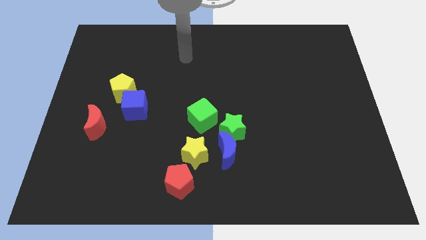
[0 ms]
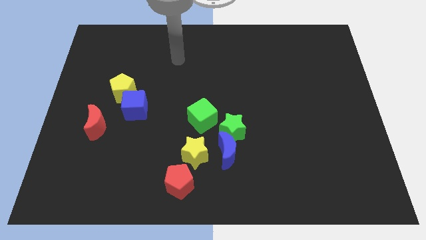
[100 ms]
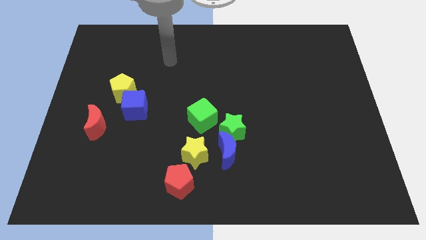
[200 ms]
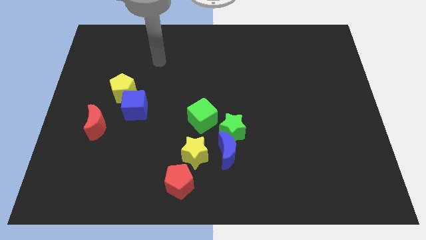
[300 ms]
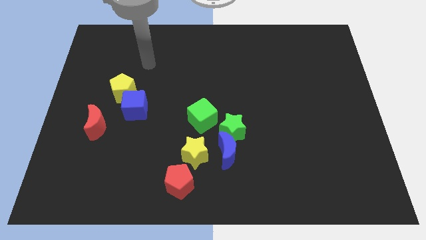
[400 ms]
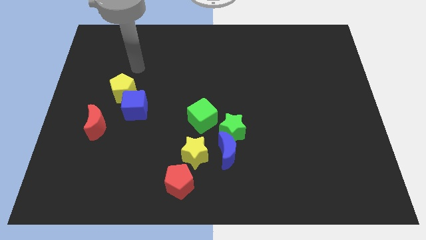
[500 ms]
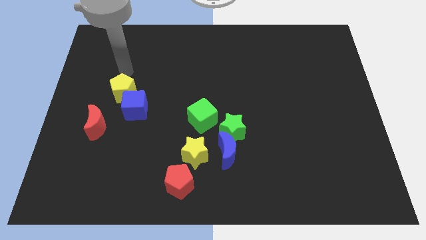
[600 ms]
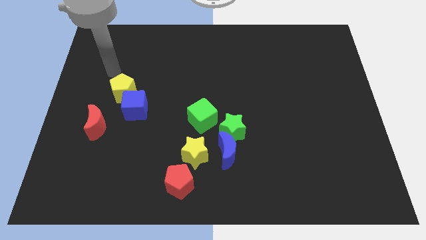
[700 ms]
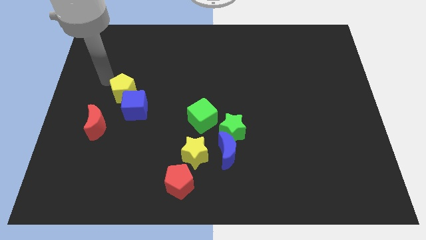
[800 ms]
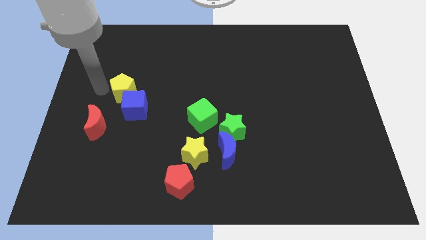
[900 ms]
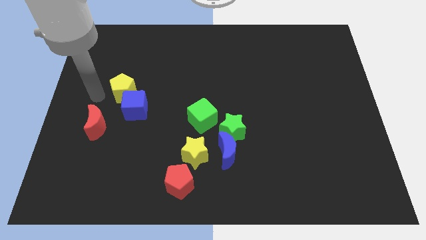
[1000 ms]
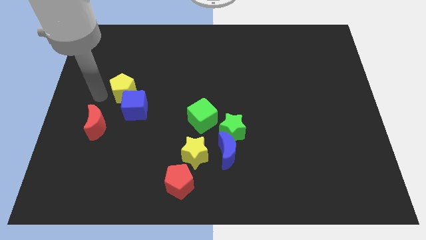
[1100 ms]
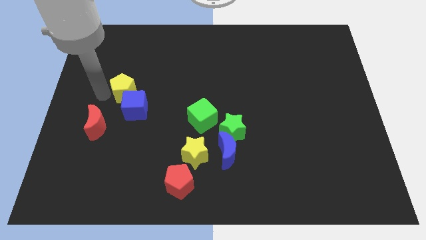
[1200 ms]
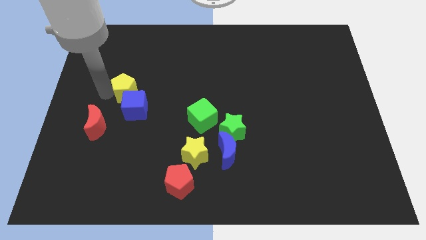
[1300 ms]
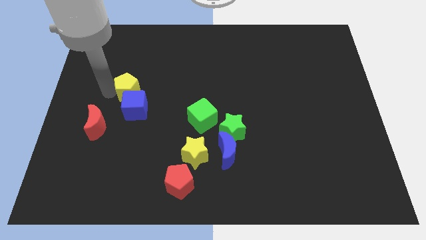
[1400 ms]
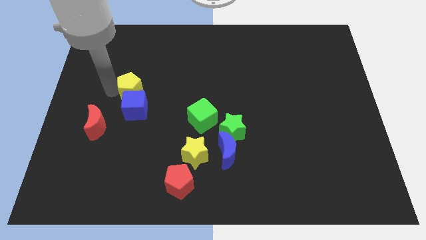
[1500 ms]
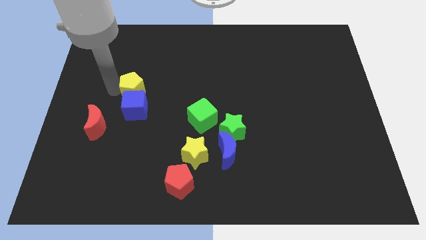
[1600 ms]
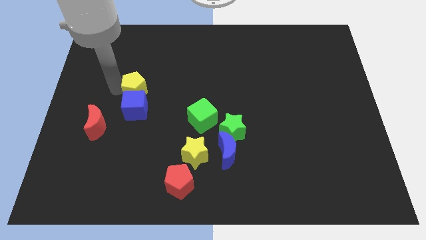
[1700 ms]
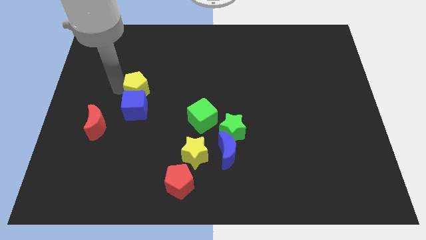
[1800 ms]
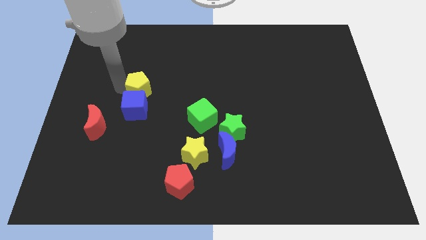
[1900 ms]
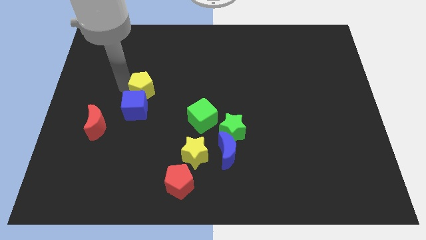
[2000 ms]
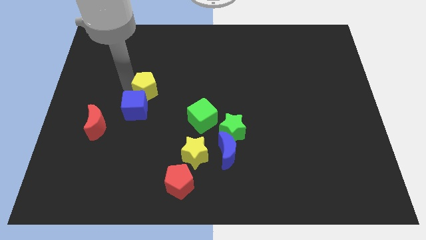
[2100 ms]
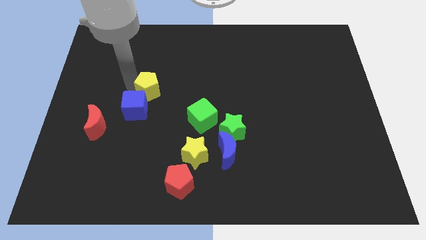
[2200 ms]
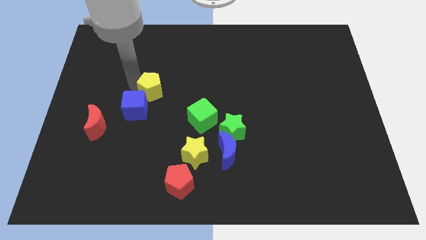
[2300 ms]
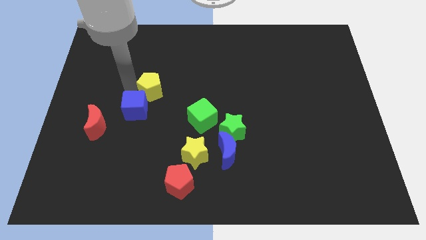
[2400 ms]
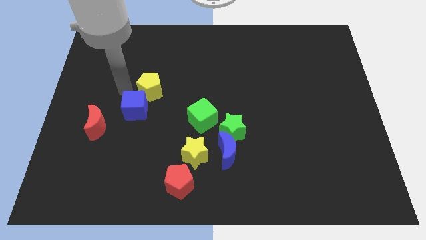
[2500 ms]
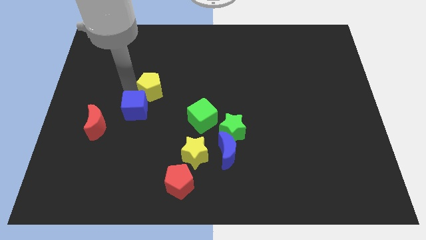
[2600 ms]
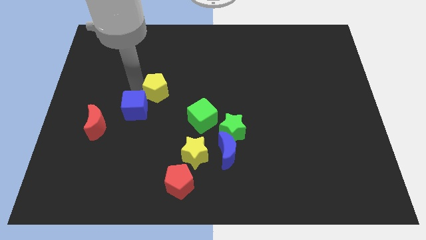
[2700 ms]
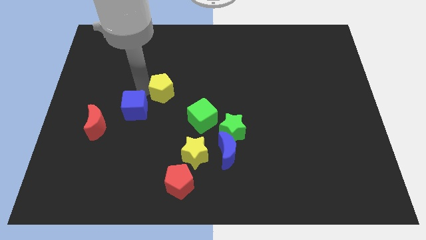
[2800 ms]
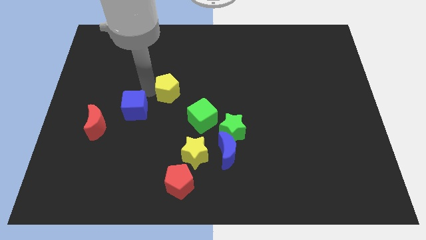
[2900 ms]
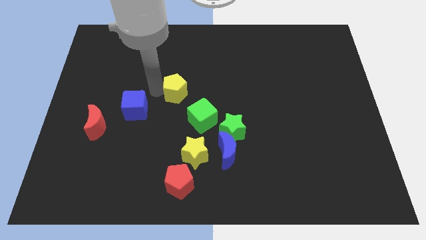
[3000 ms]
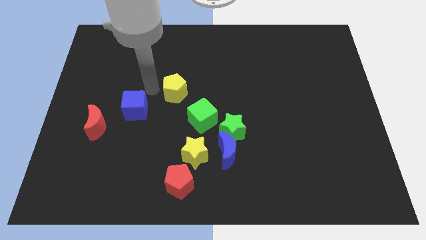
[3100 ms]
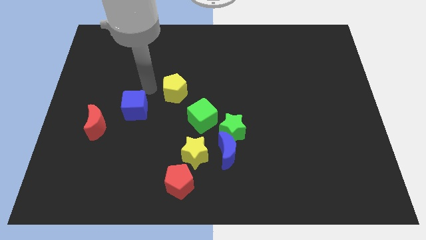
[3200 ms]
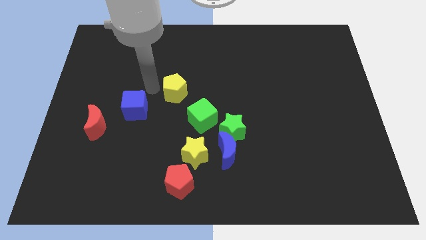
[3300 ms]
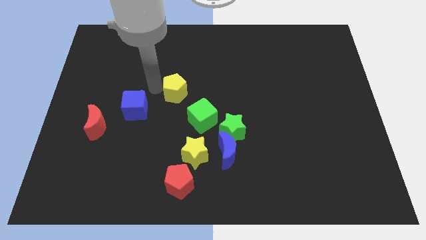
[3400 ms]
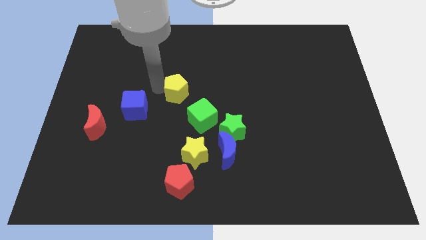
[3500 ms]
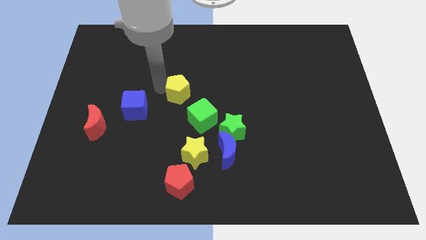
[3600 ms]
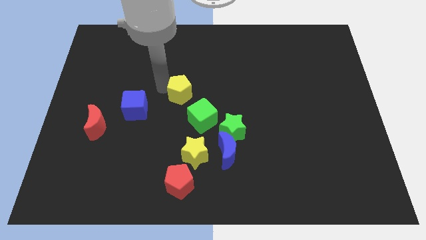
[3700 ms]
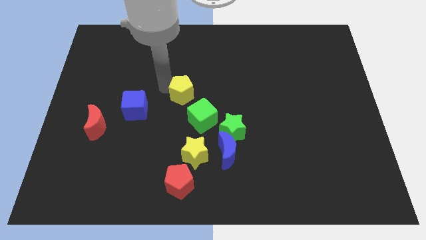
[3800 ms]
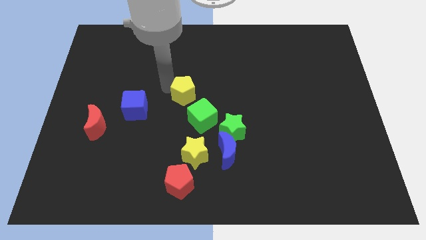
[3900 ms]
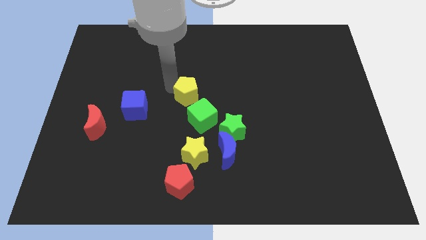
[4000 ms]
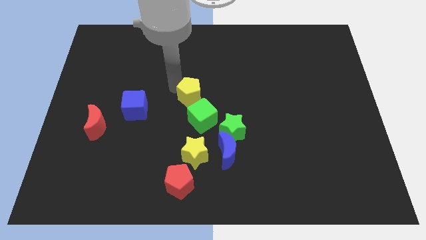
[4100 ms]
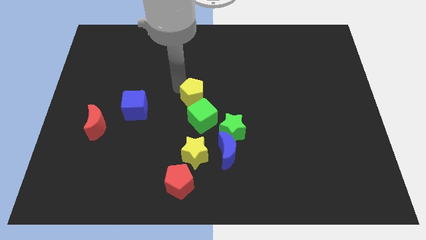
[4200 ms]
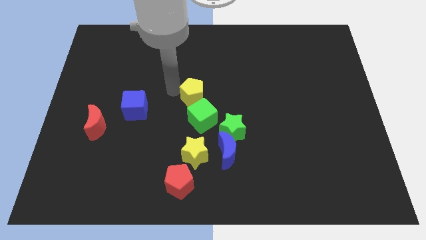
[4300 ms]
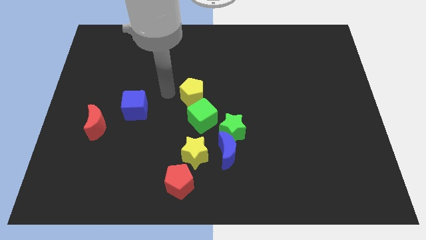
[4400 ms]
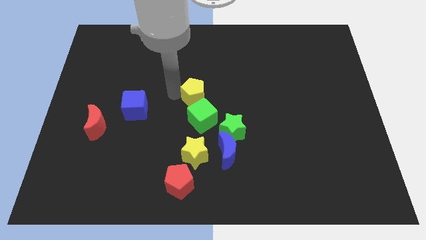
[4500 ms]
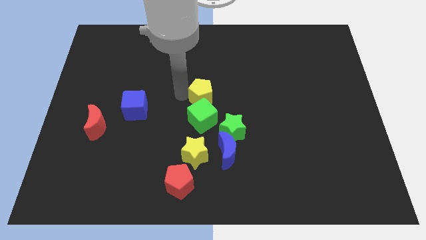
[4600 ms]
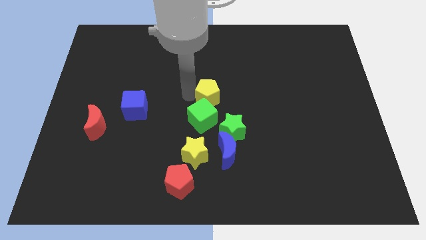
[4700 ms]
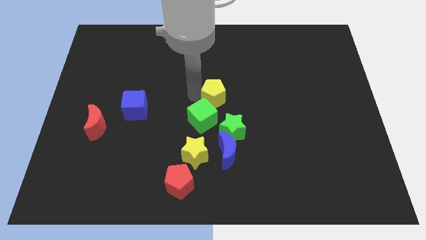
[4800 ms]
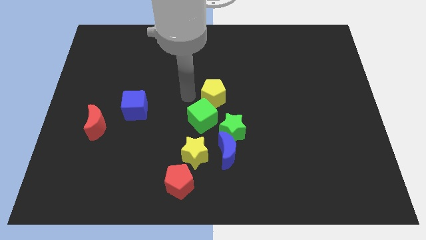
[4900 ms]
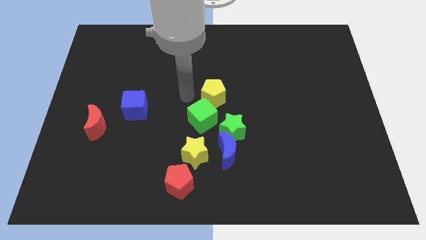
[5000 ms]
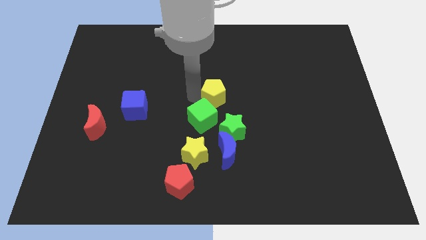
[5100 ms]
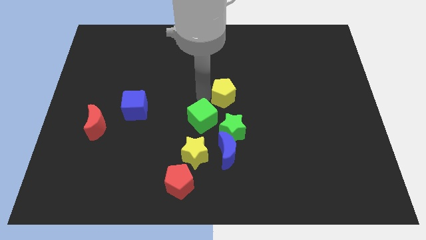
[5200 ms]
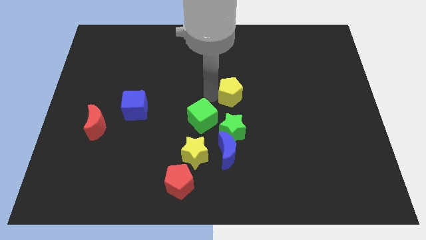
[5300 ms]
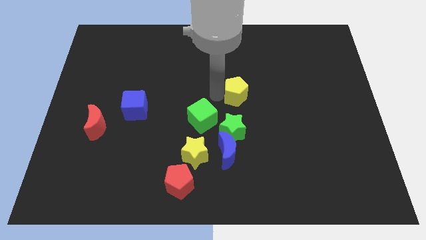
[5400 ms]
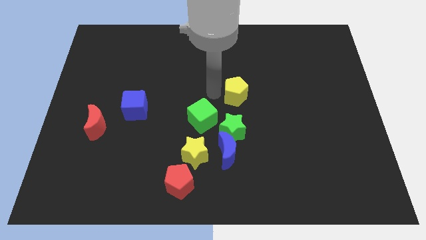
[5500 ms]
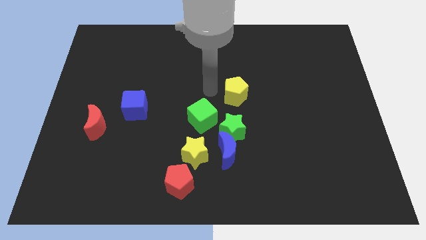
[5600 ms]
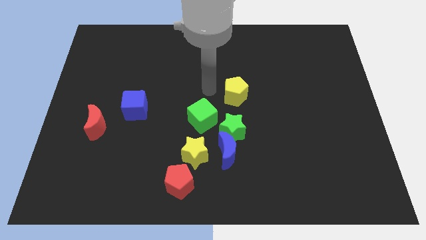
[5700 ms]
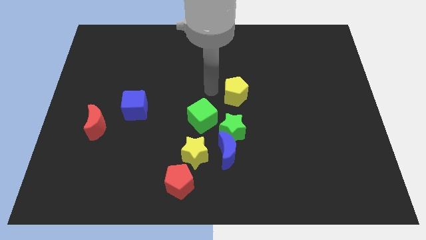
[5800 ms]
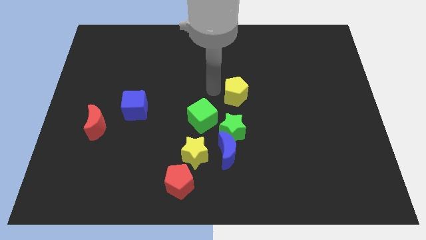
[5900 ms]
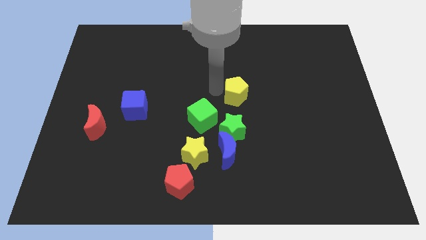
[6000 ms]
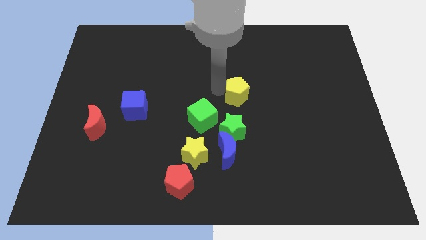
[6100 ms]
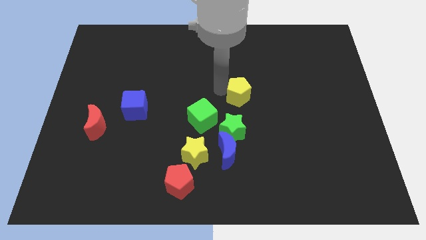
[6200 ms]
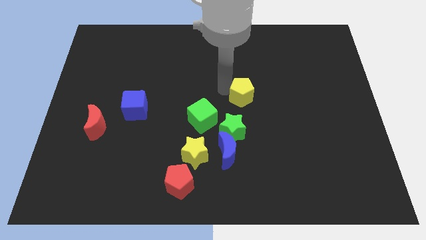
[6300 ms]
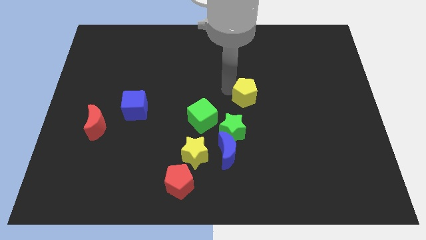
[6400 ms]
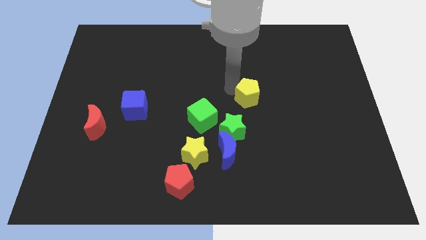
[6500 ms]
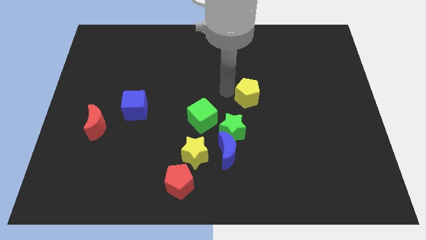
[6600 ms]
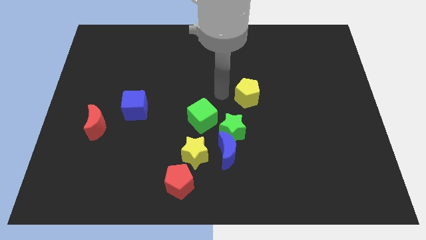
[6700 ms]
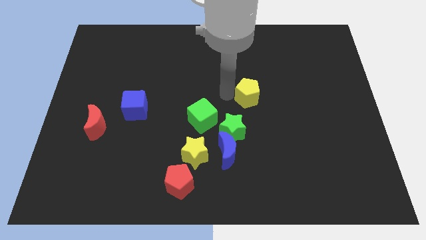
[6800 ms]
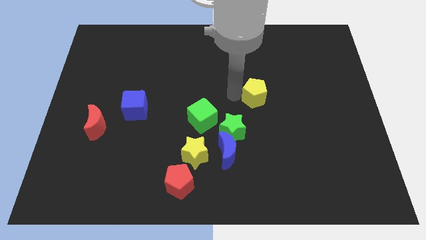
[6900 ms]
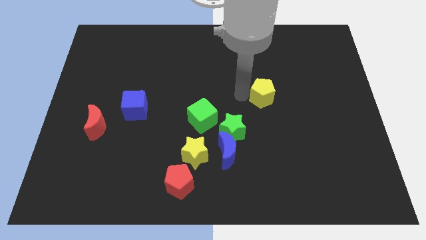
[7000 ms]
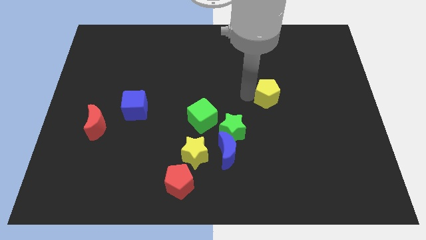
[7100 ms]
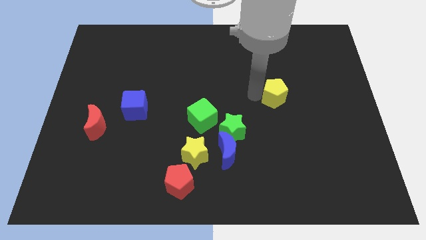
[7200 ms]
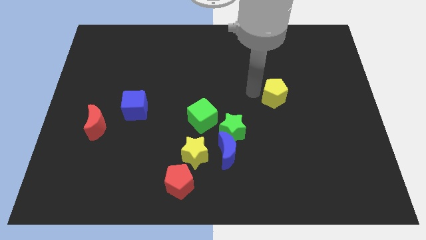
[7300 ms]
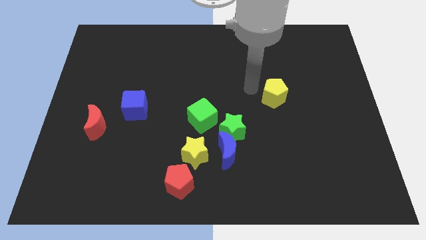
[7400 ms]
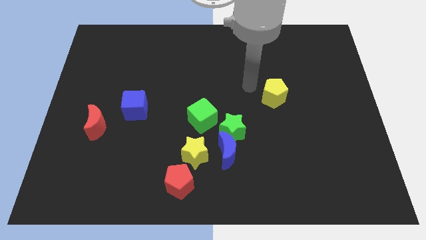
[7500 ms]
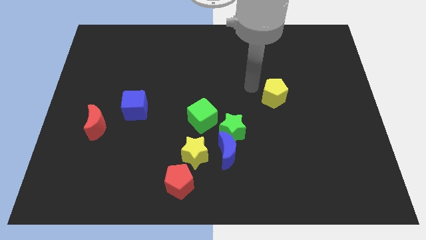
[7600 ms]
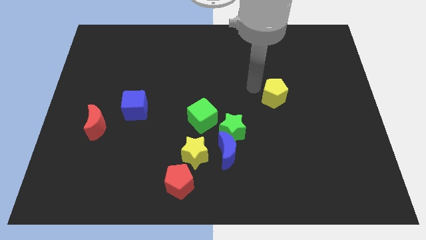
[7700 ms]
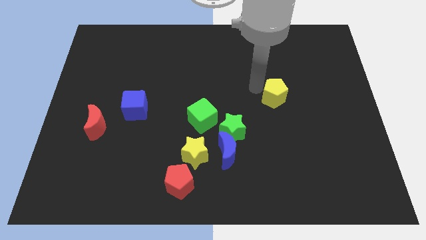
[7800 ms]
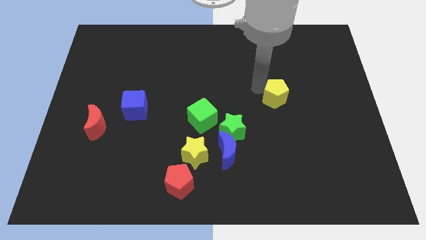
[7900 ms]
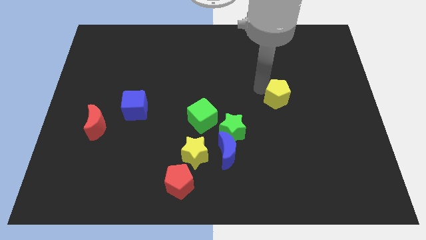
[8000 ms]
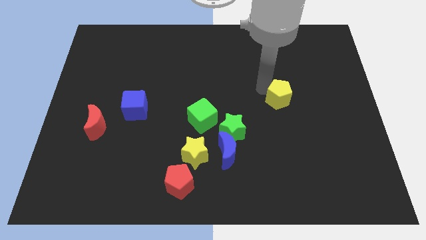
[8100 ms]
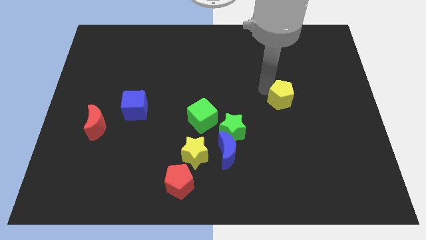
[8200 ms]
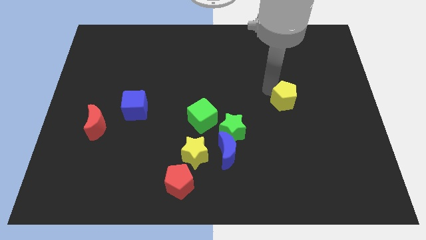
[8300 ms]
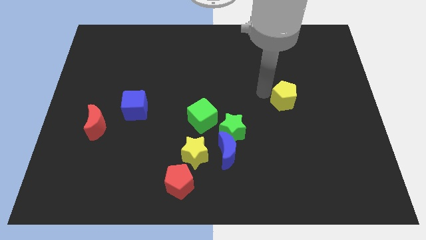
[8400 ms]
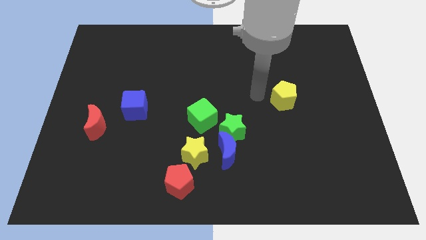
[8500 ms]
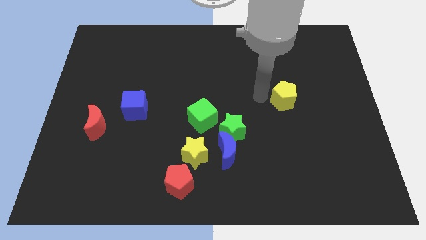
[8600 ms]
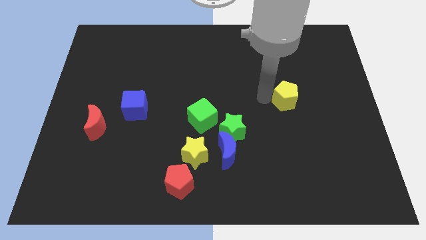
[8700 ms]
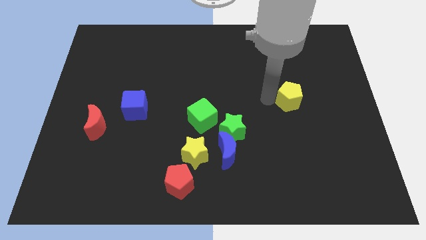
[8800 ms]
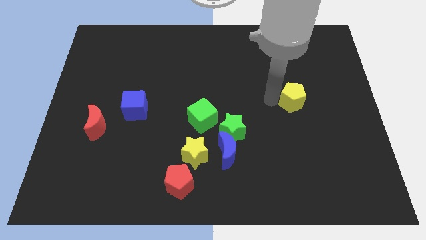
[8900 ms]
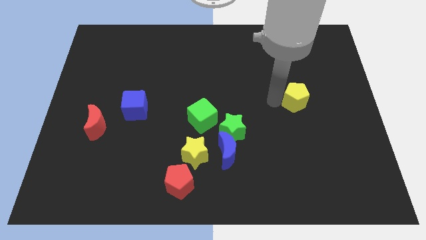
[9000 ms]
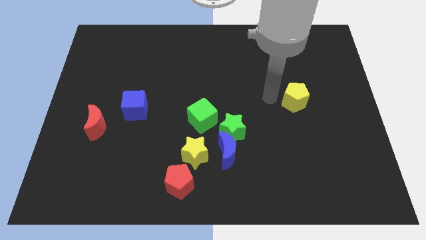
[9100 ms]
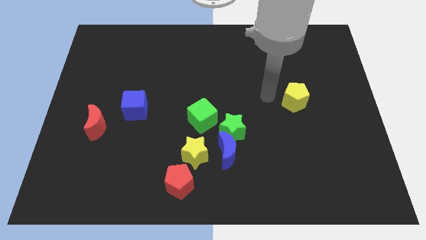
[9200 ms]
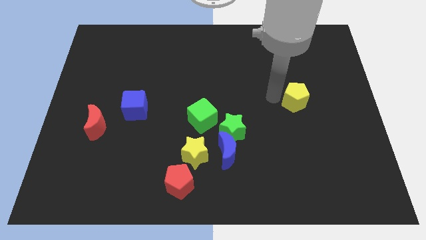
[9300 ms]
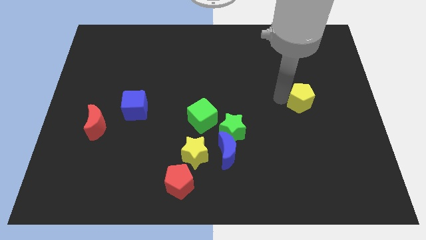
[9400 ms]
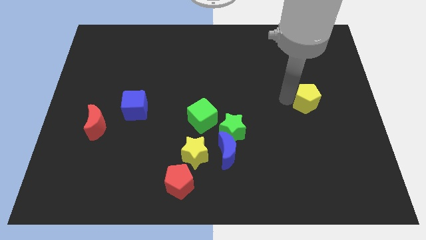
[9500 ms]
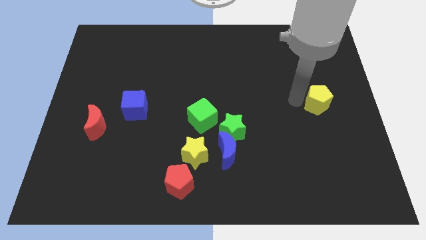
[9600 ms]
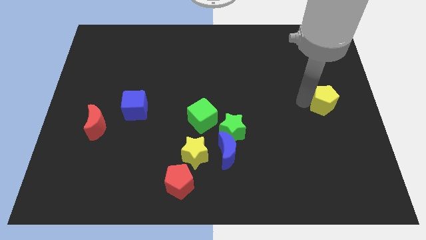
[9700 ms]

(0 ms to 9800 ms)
push the yellow pentagon to the right side of the board
